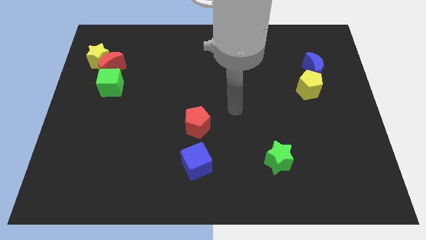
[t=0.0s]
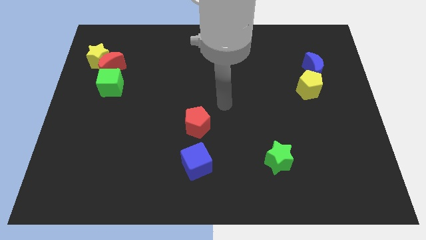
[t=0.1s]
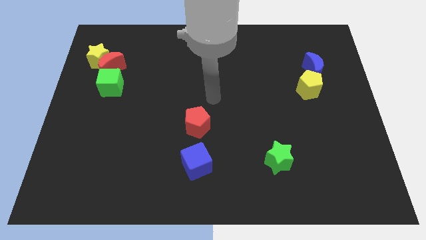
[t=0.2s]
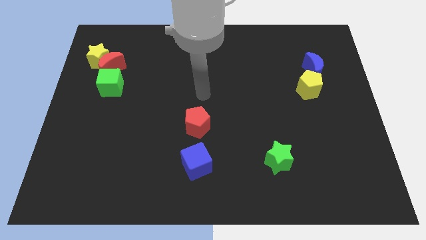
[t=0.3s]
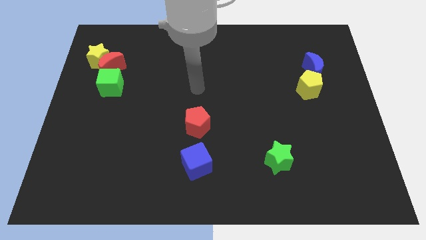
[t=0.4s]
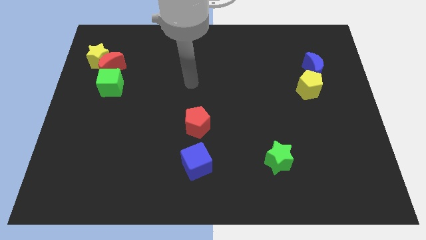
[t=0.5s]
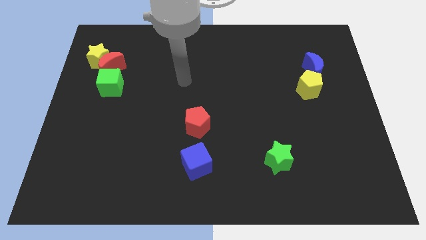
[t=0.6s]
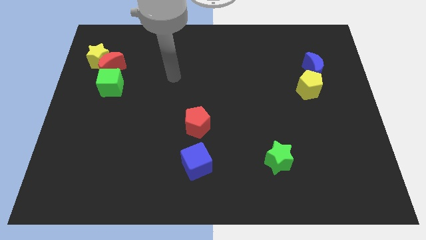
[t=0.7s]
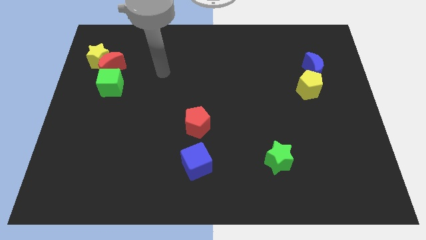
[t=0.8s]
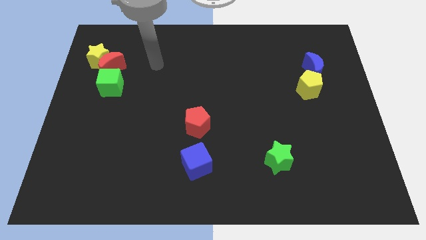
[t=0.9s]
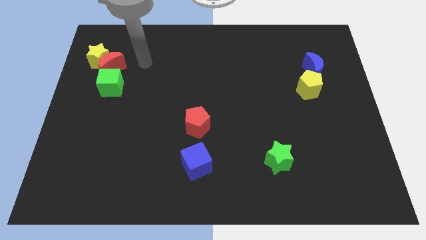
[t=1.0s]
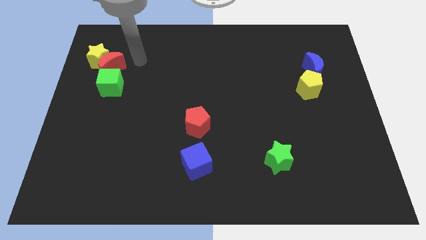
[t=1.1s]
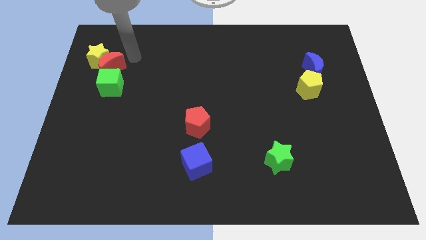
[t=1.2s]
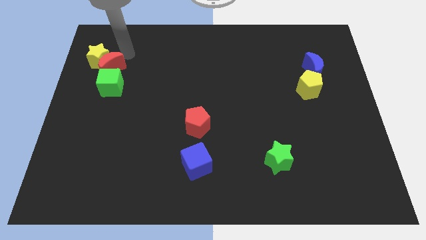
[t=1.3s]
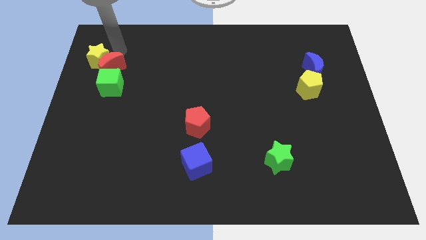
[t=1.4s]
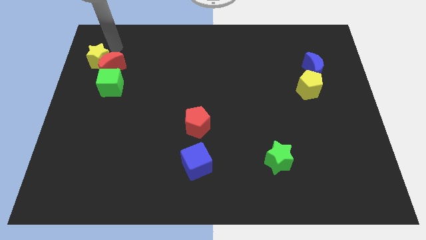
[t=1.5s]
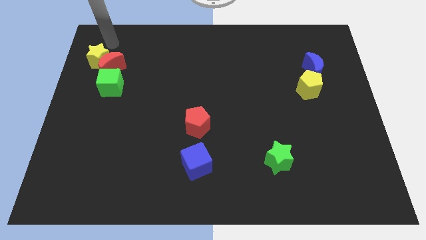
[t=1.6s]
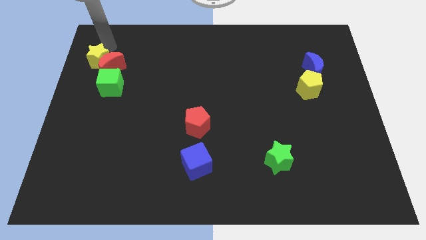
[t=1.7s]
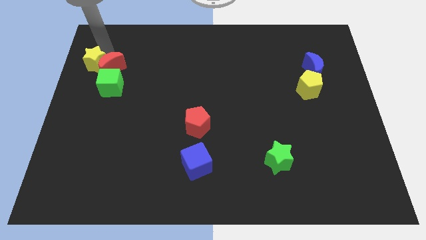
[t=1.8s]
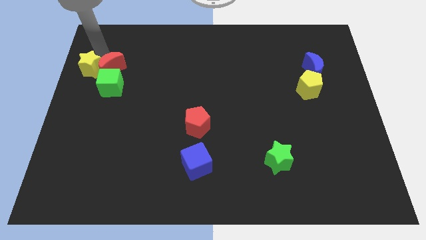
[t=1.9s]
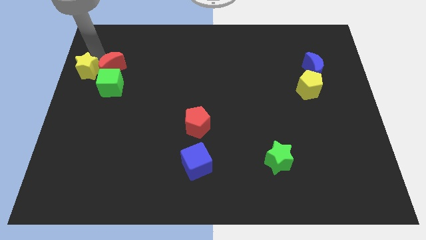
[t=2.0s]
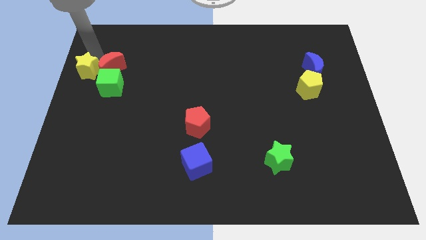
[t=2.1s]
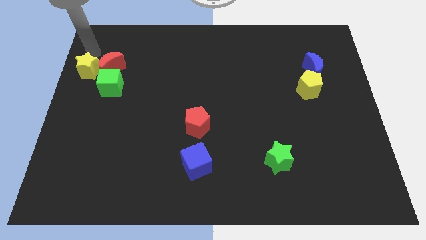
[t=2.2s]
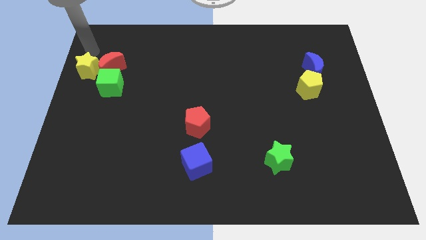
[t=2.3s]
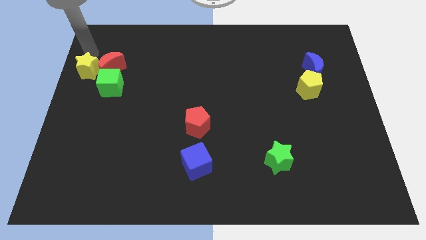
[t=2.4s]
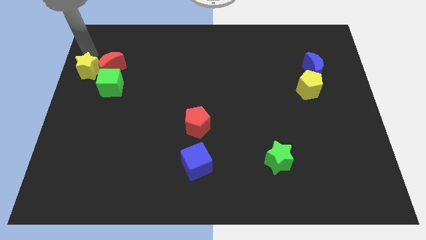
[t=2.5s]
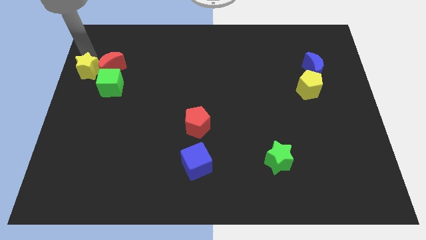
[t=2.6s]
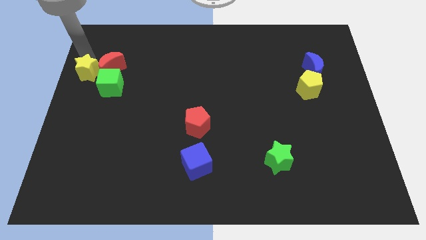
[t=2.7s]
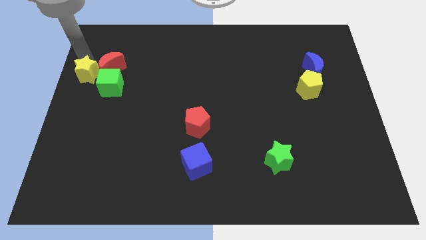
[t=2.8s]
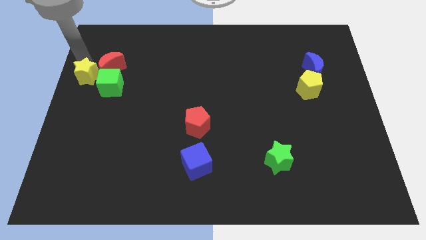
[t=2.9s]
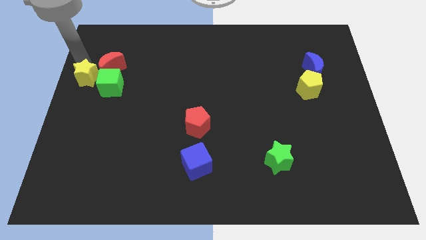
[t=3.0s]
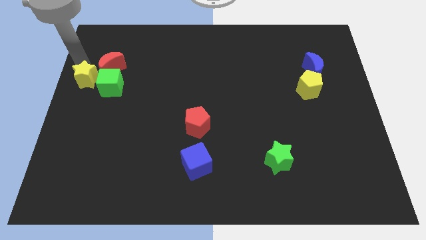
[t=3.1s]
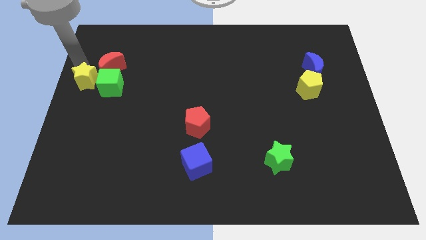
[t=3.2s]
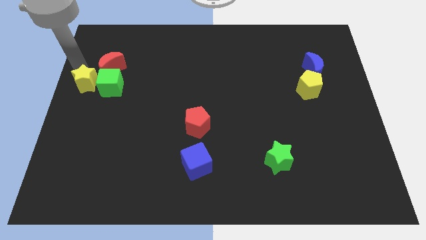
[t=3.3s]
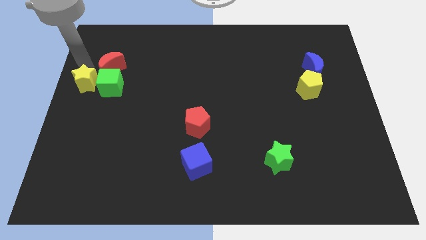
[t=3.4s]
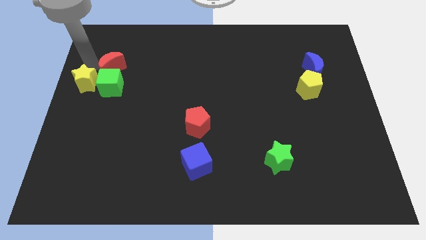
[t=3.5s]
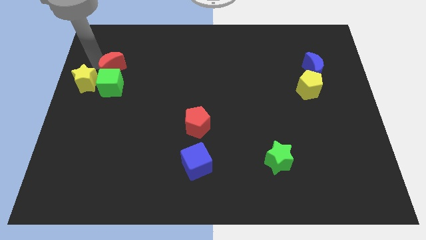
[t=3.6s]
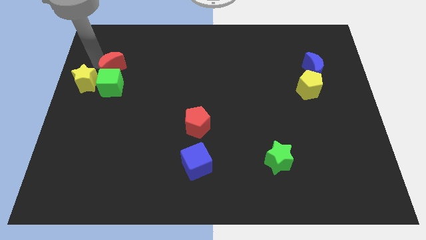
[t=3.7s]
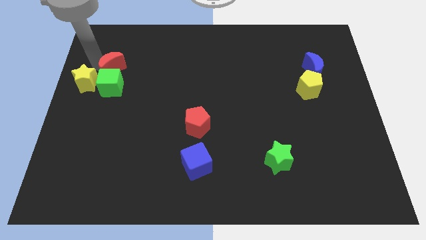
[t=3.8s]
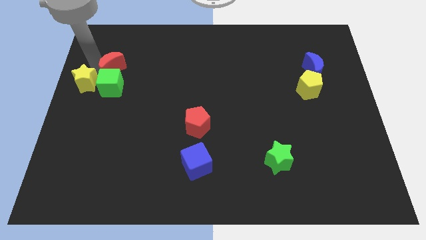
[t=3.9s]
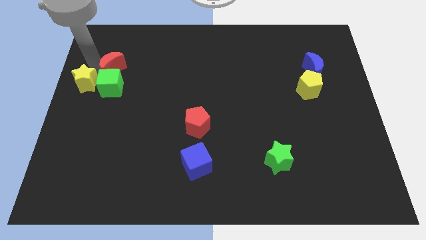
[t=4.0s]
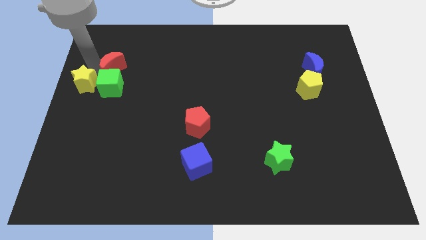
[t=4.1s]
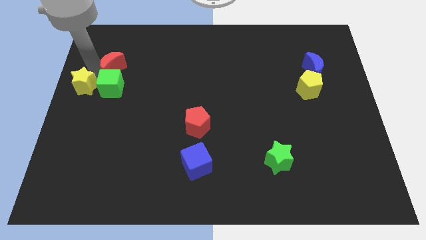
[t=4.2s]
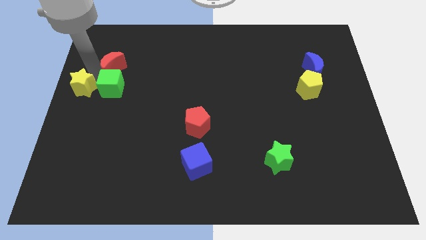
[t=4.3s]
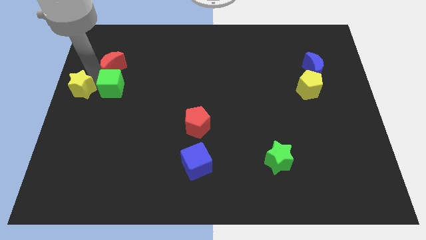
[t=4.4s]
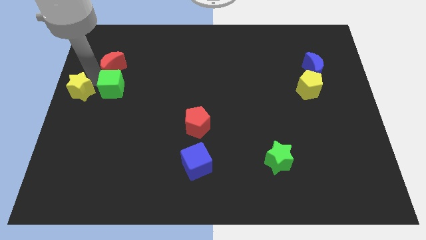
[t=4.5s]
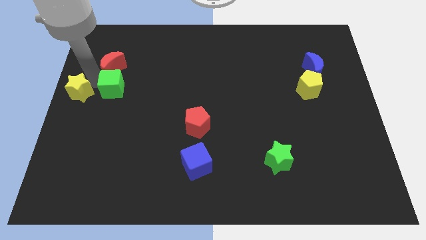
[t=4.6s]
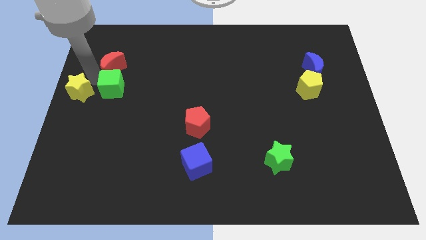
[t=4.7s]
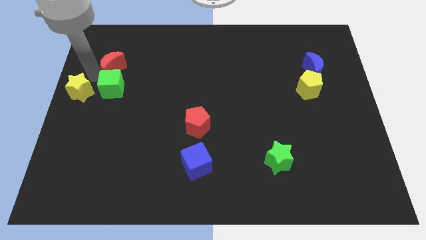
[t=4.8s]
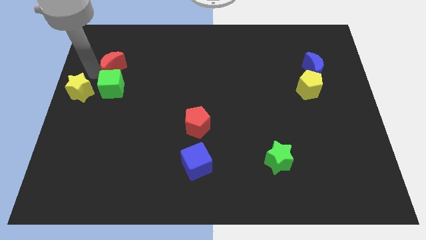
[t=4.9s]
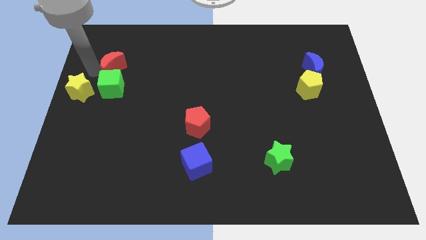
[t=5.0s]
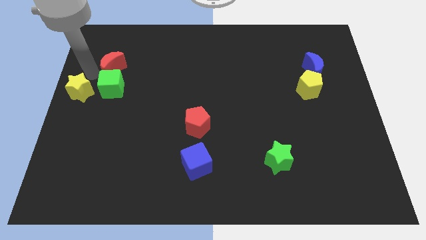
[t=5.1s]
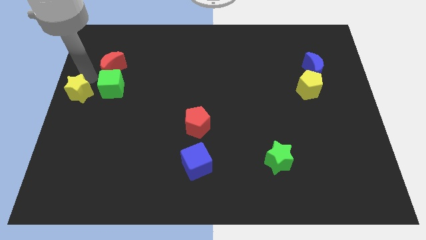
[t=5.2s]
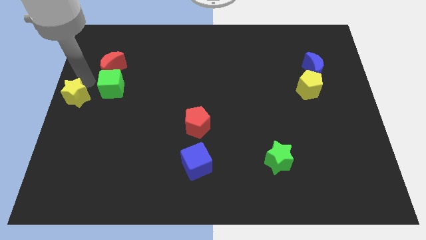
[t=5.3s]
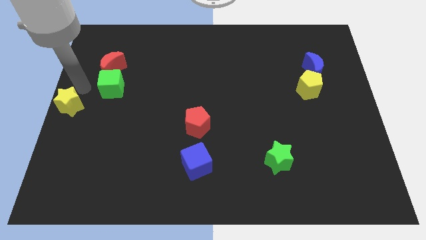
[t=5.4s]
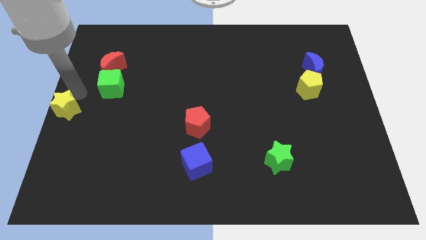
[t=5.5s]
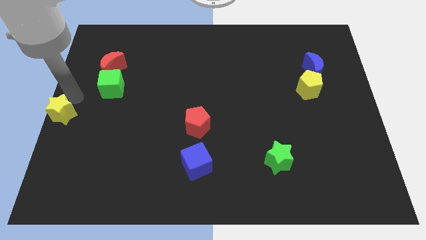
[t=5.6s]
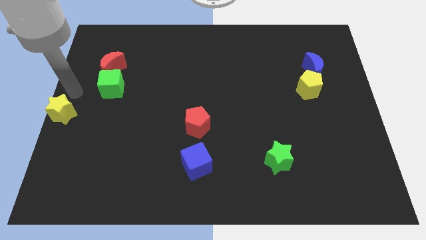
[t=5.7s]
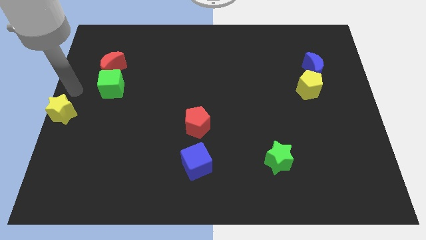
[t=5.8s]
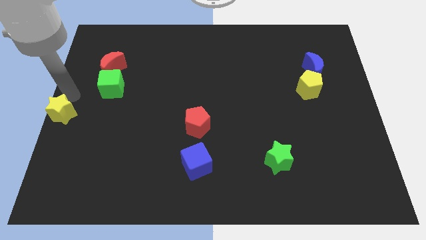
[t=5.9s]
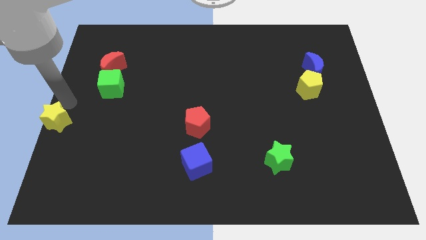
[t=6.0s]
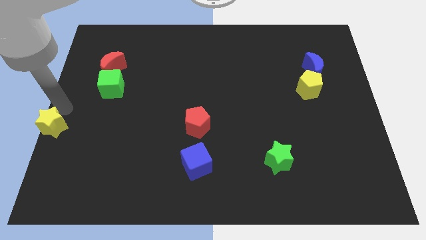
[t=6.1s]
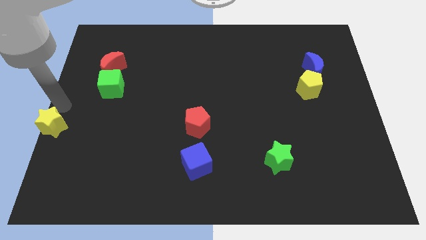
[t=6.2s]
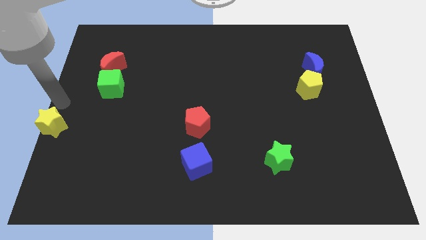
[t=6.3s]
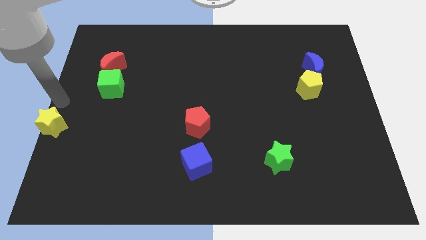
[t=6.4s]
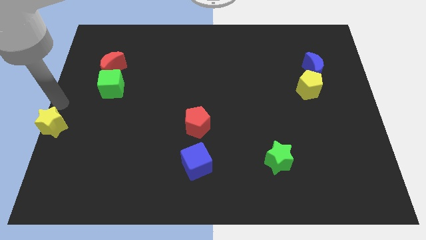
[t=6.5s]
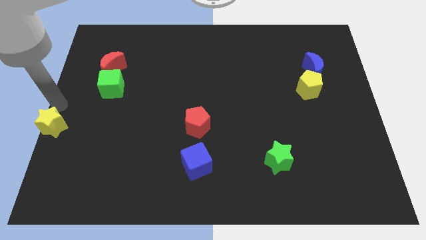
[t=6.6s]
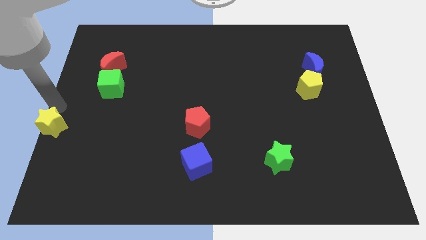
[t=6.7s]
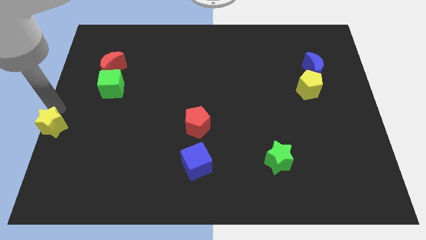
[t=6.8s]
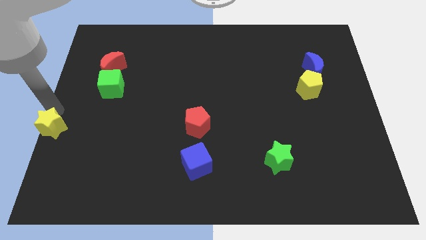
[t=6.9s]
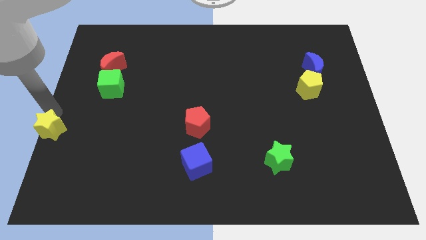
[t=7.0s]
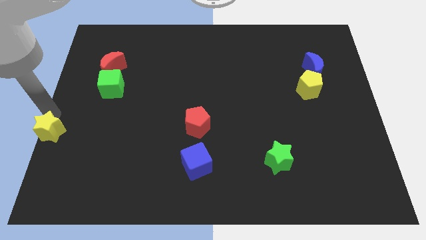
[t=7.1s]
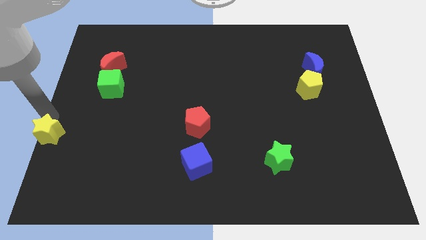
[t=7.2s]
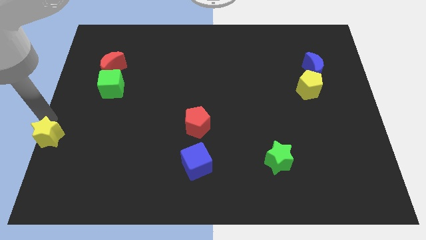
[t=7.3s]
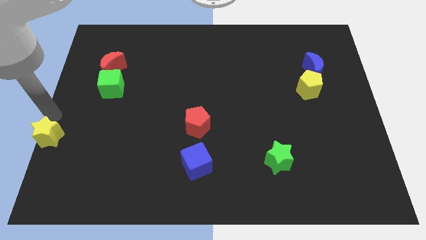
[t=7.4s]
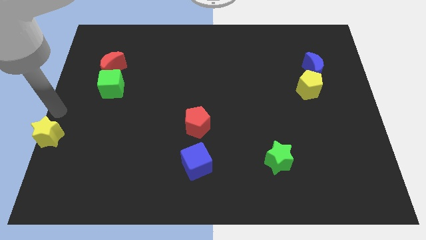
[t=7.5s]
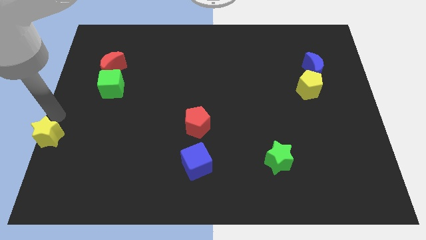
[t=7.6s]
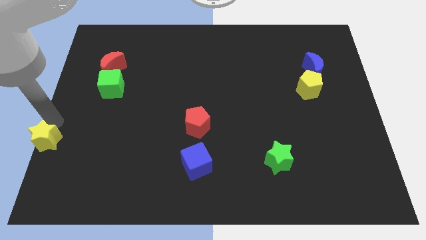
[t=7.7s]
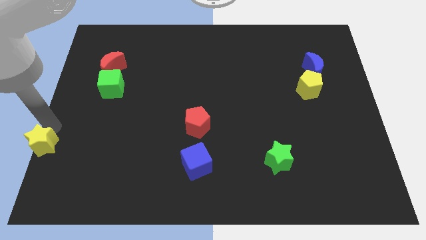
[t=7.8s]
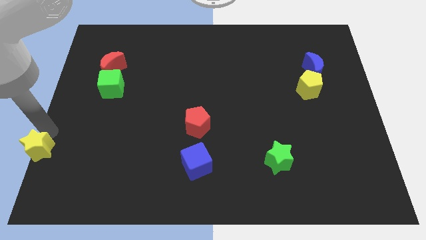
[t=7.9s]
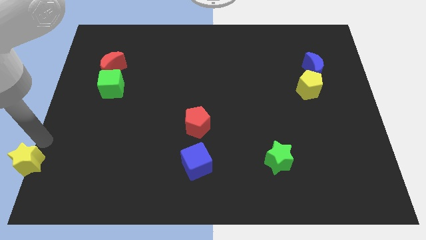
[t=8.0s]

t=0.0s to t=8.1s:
push the yellow star to the bottom left of the board
